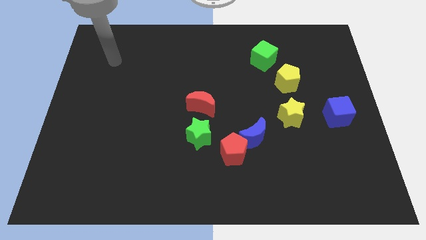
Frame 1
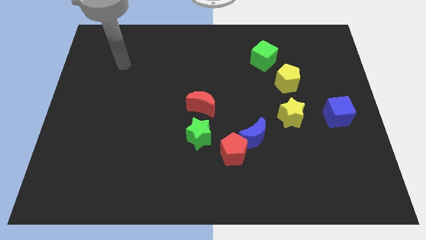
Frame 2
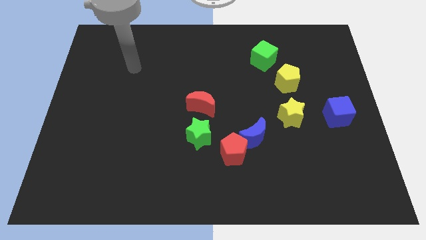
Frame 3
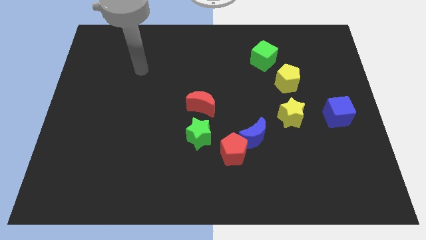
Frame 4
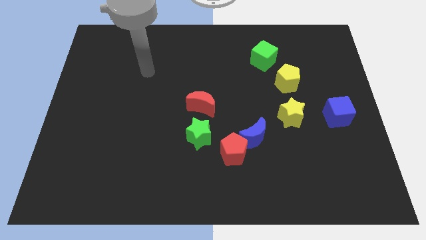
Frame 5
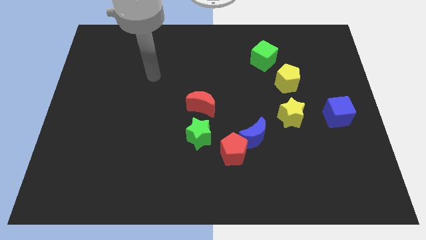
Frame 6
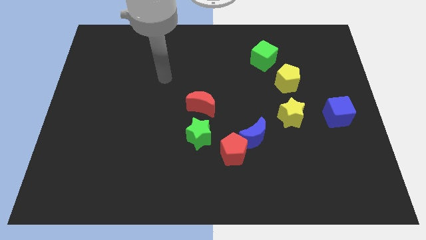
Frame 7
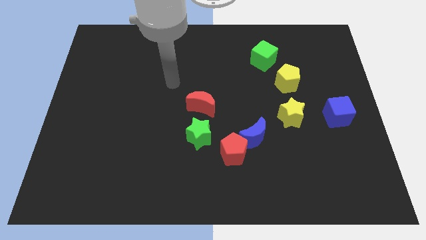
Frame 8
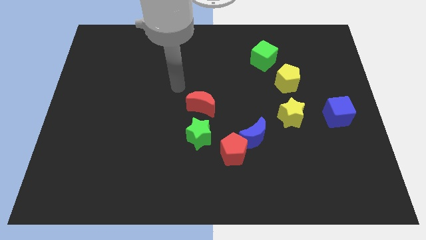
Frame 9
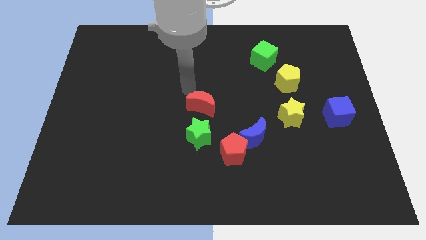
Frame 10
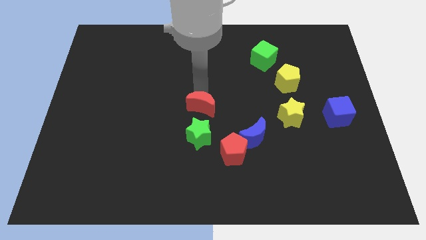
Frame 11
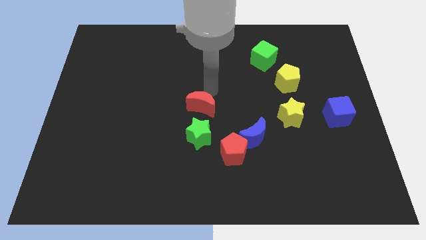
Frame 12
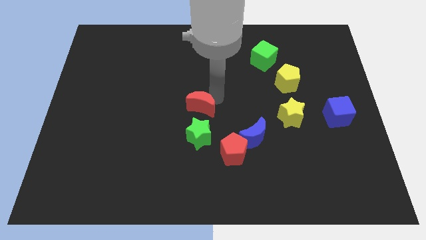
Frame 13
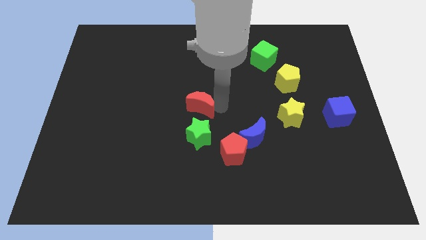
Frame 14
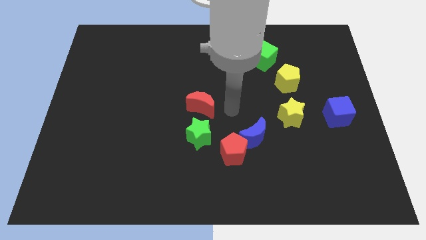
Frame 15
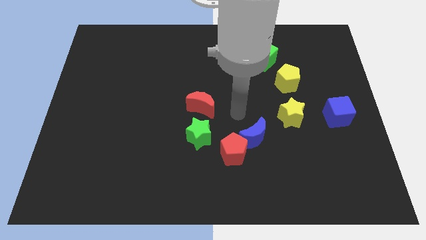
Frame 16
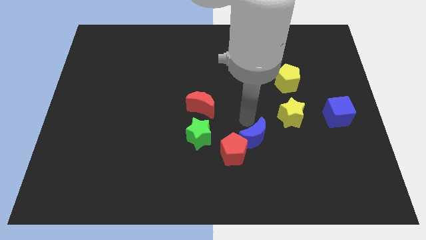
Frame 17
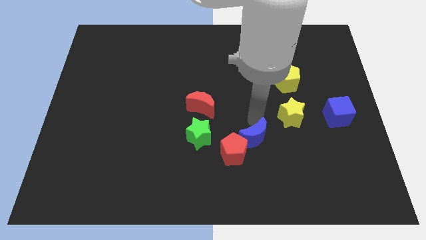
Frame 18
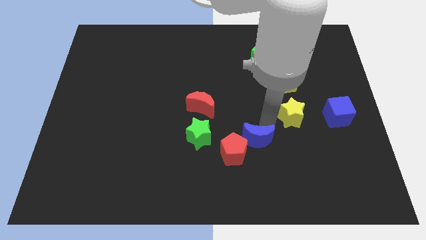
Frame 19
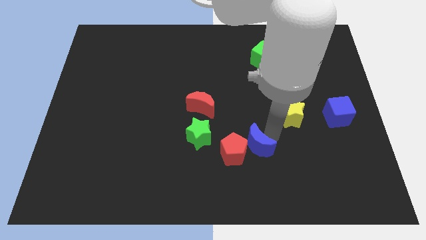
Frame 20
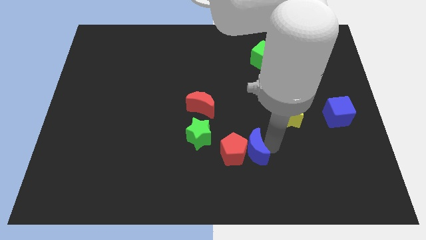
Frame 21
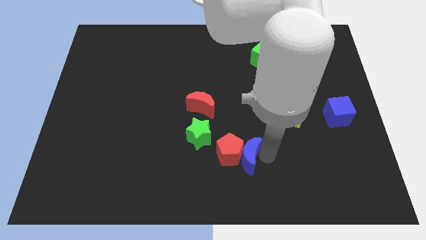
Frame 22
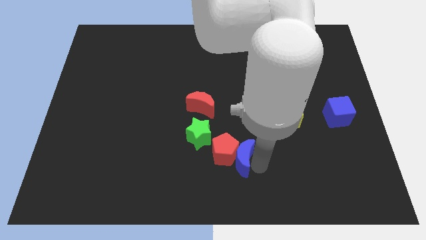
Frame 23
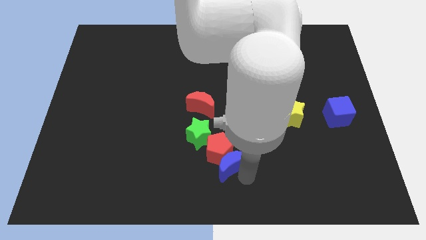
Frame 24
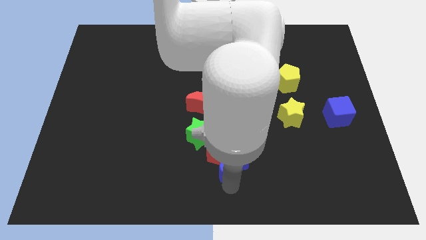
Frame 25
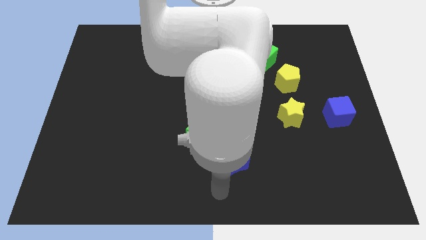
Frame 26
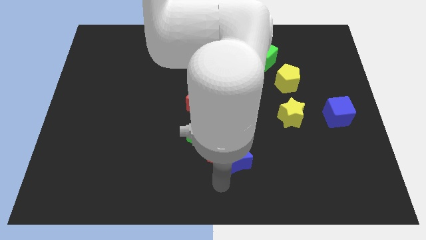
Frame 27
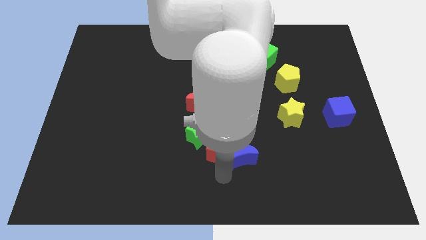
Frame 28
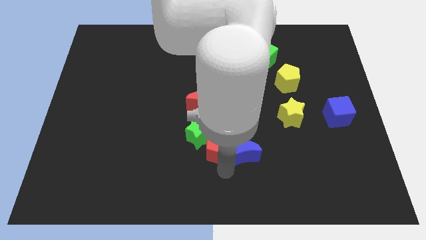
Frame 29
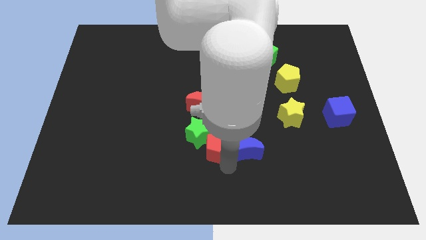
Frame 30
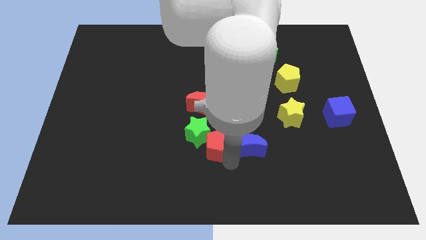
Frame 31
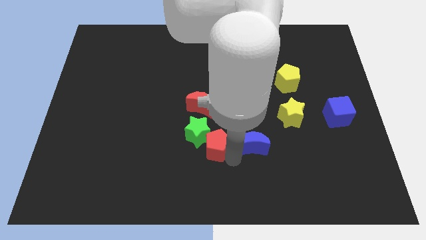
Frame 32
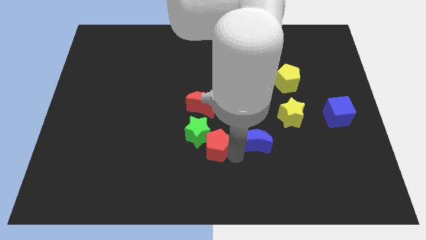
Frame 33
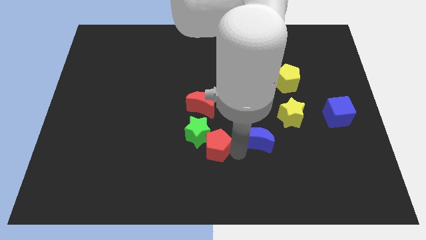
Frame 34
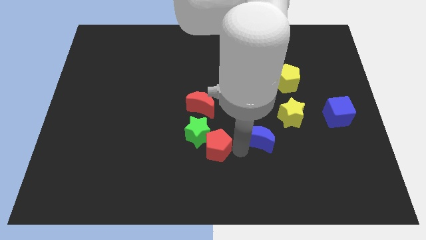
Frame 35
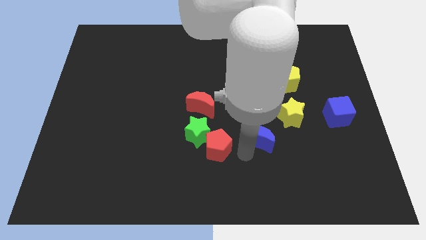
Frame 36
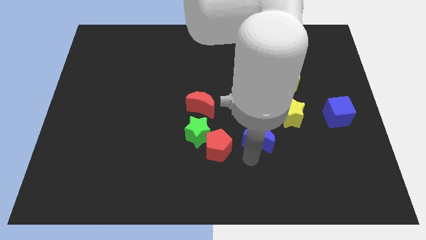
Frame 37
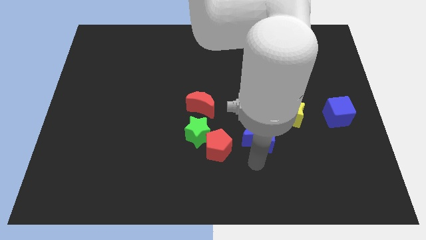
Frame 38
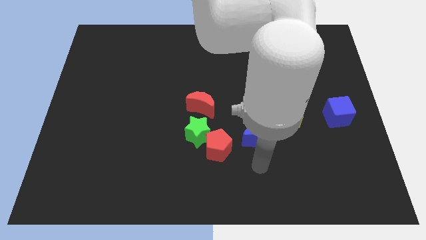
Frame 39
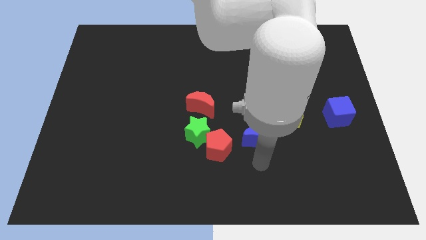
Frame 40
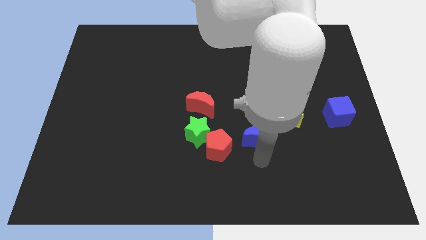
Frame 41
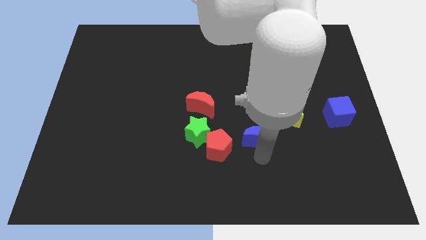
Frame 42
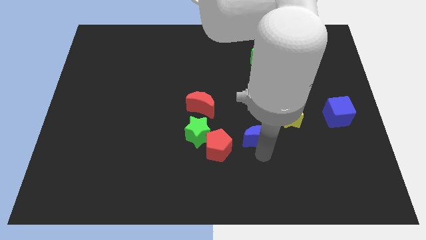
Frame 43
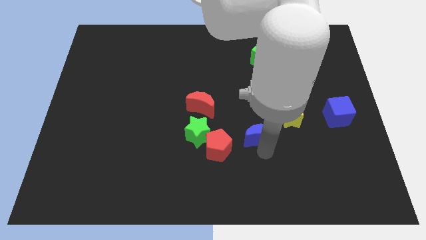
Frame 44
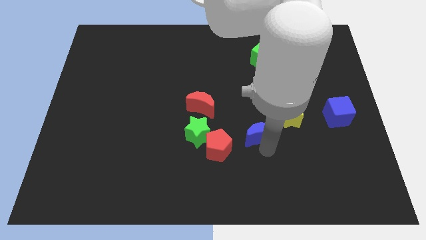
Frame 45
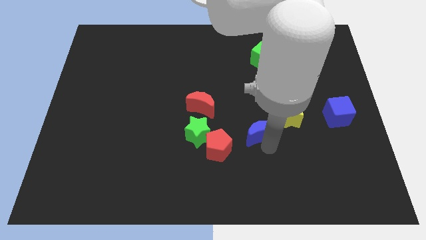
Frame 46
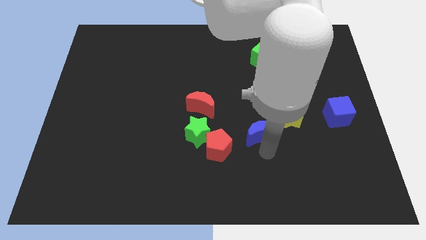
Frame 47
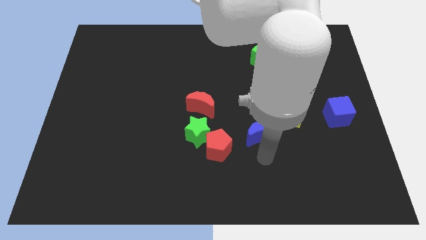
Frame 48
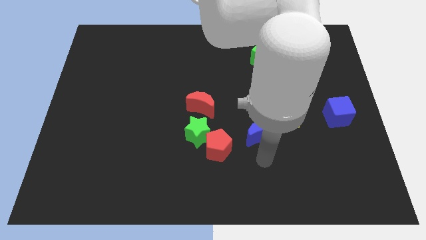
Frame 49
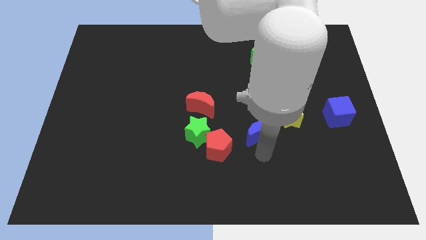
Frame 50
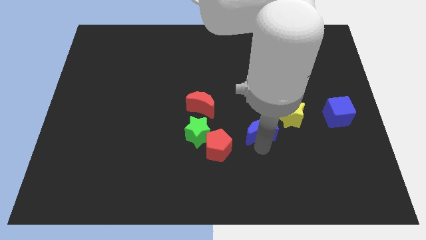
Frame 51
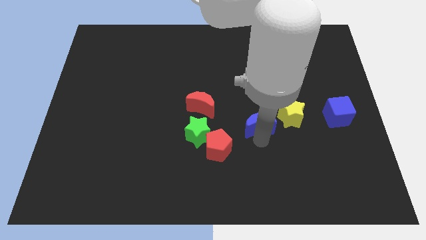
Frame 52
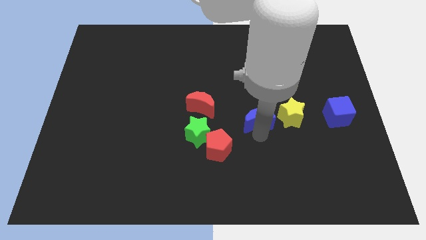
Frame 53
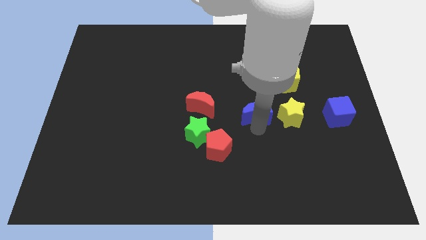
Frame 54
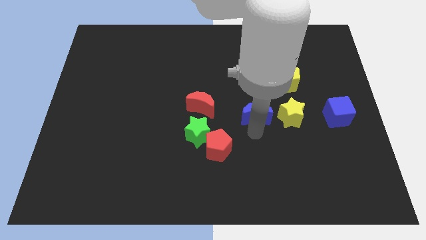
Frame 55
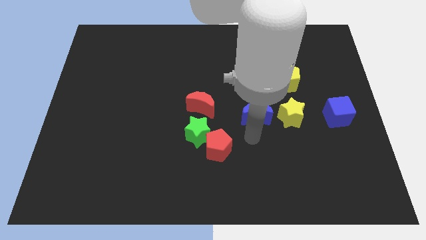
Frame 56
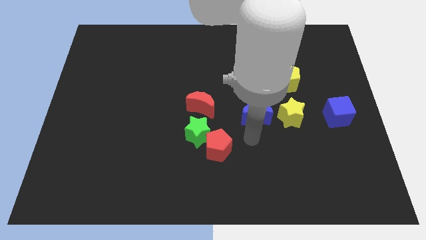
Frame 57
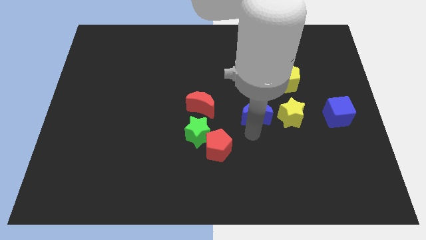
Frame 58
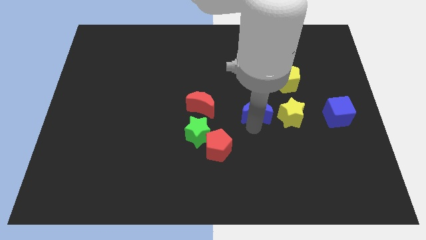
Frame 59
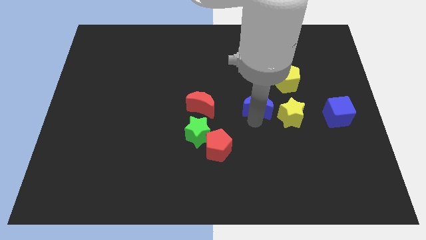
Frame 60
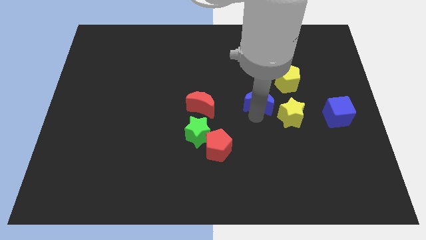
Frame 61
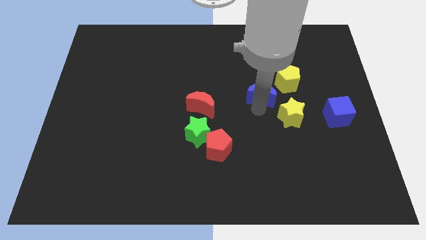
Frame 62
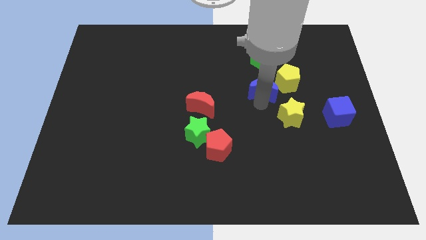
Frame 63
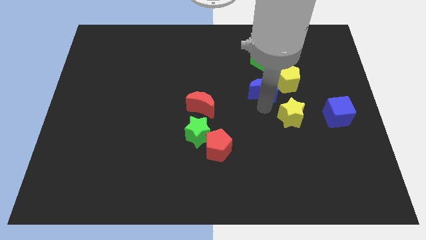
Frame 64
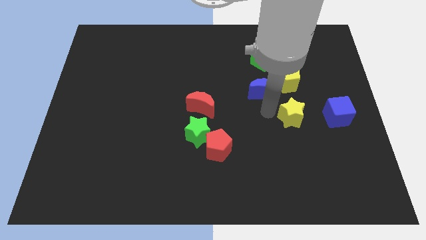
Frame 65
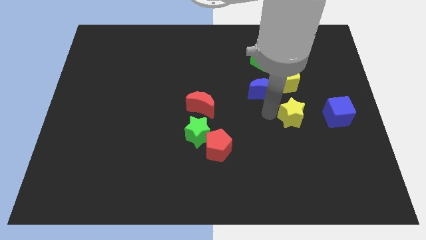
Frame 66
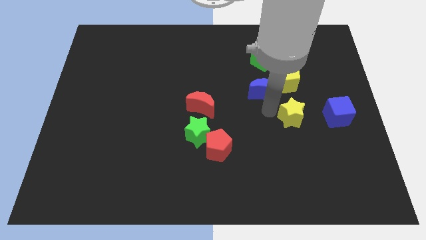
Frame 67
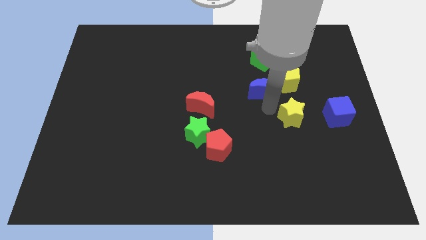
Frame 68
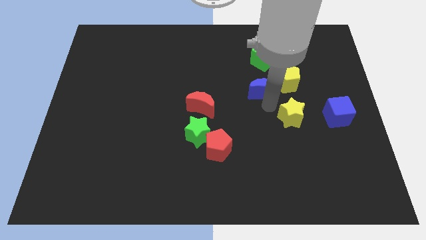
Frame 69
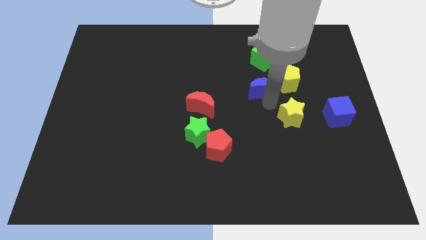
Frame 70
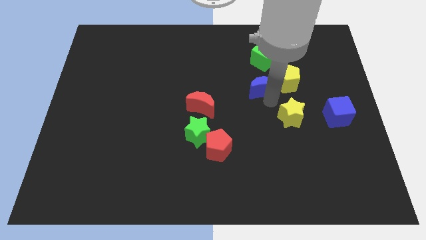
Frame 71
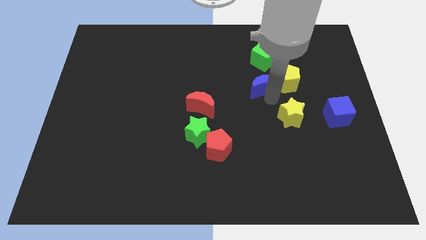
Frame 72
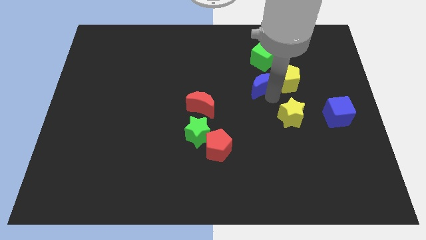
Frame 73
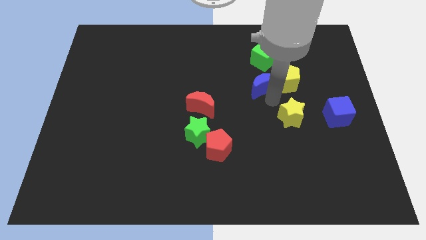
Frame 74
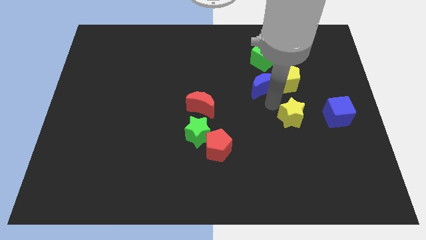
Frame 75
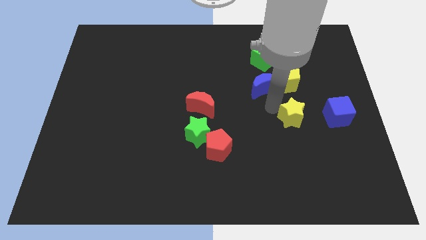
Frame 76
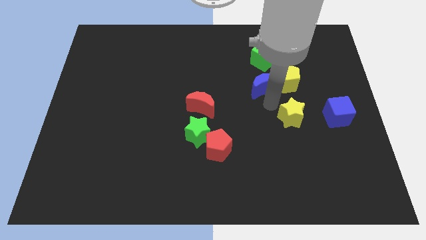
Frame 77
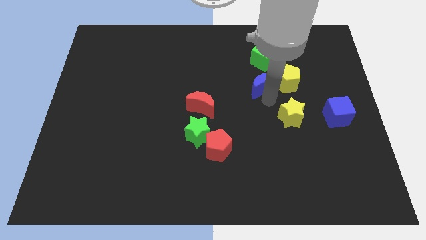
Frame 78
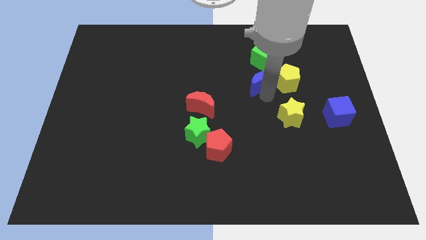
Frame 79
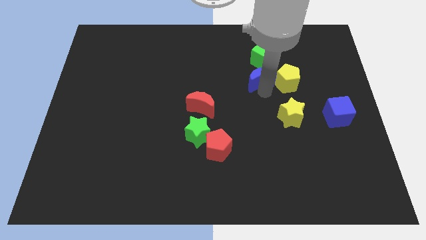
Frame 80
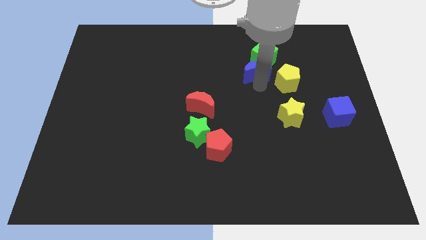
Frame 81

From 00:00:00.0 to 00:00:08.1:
move the blue moon to the green cube
